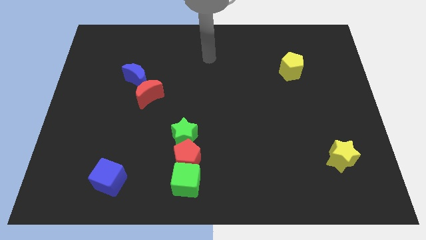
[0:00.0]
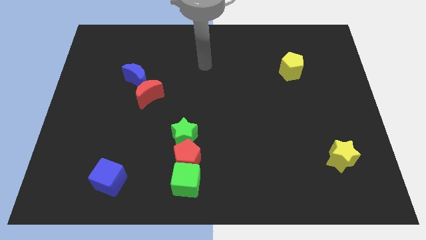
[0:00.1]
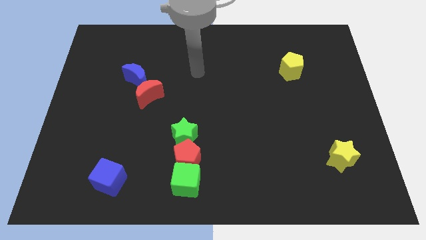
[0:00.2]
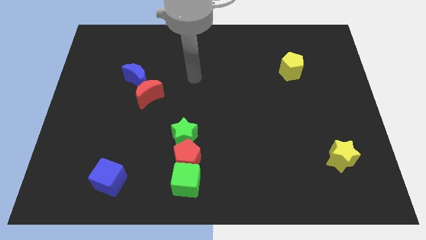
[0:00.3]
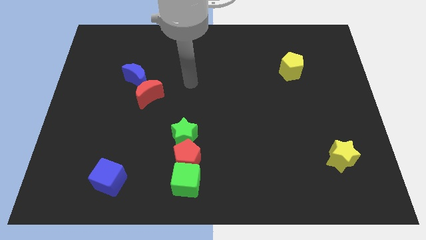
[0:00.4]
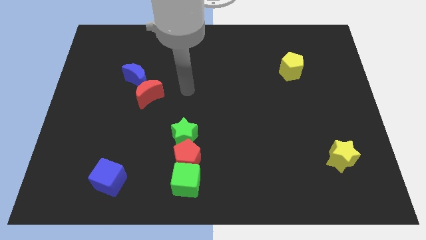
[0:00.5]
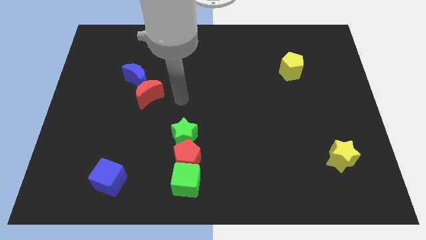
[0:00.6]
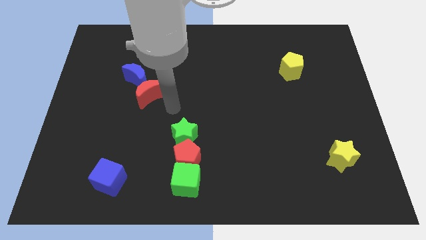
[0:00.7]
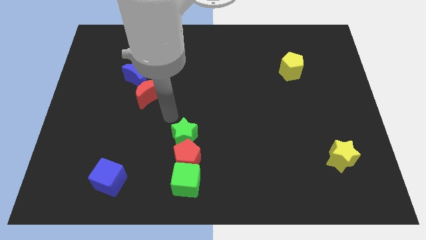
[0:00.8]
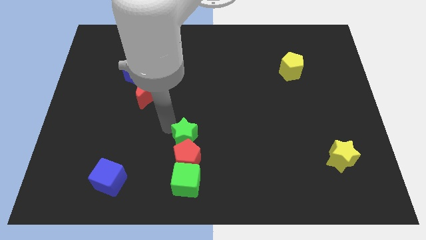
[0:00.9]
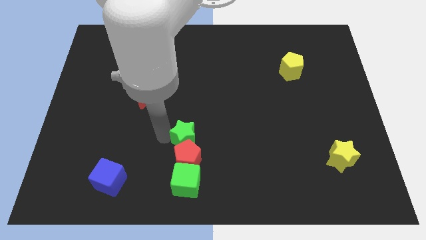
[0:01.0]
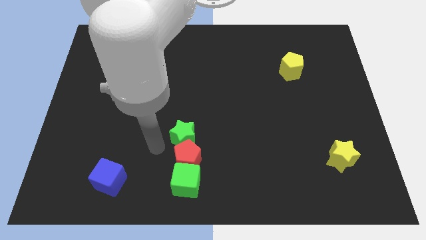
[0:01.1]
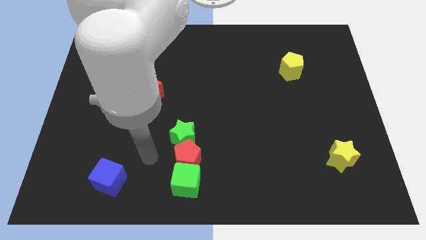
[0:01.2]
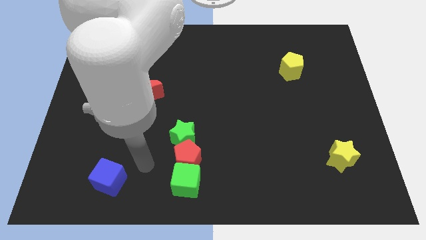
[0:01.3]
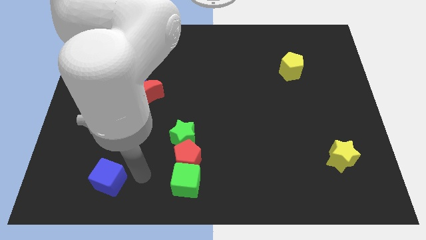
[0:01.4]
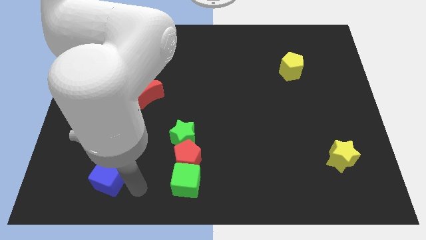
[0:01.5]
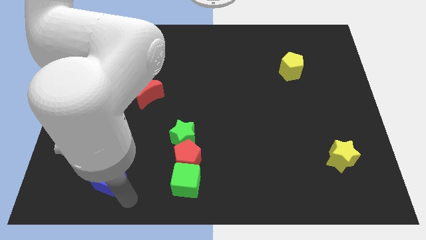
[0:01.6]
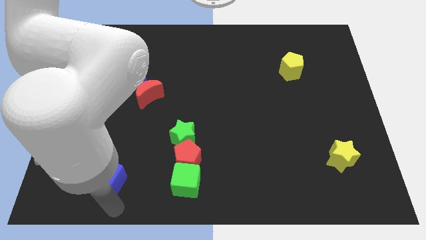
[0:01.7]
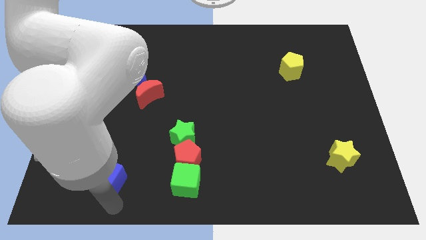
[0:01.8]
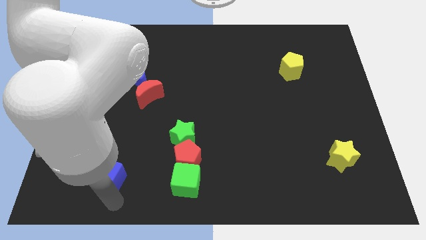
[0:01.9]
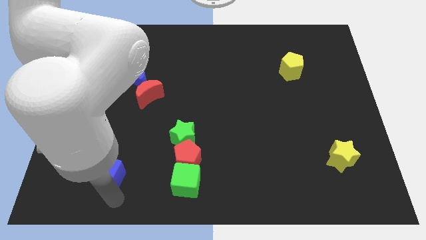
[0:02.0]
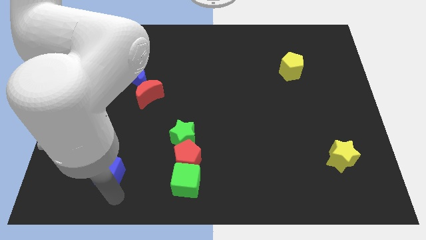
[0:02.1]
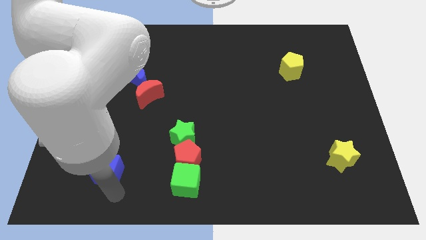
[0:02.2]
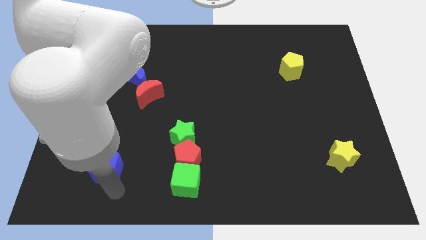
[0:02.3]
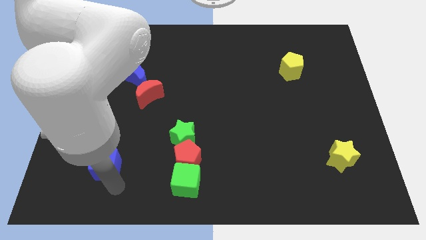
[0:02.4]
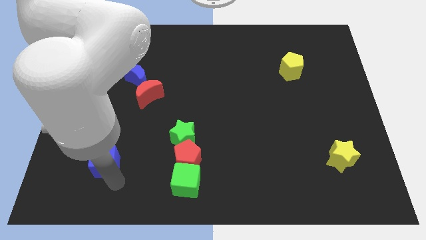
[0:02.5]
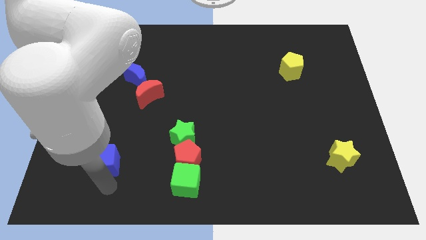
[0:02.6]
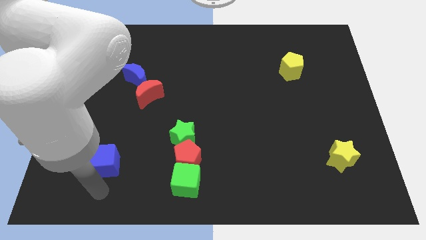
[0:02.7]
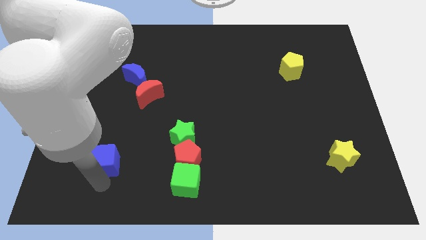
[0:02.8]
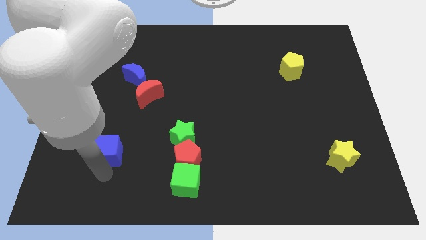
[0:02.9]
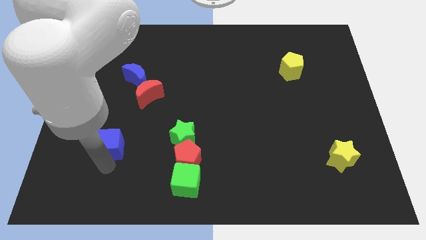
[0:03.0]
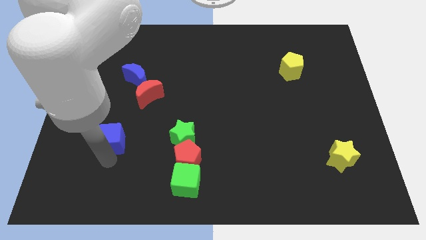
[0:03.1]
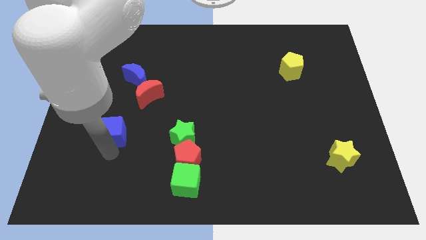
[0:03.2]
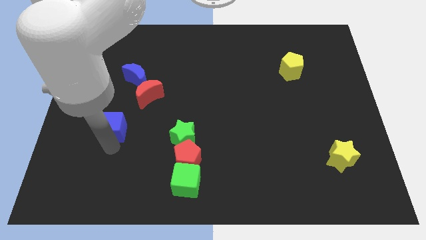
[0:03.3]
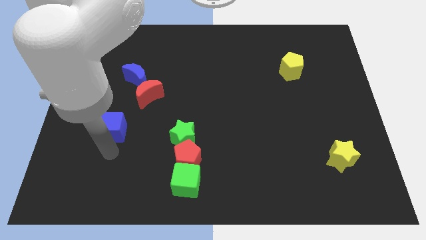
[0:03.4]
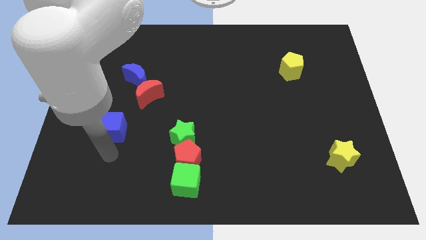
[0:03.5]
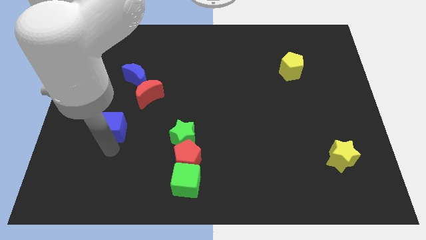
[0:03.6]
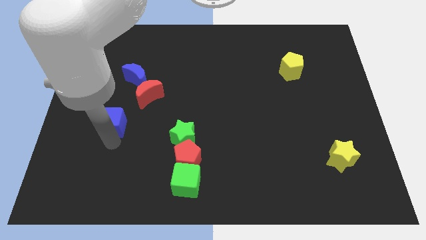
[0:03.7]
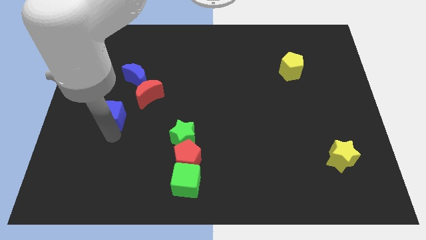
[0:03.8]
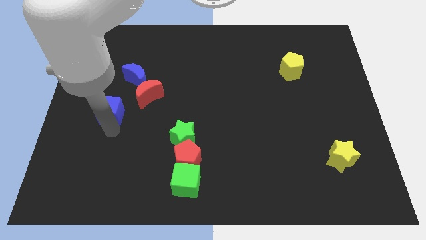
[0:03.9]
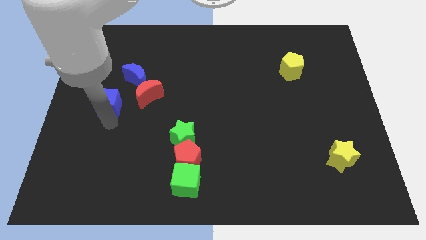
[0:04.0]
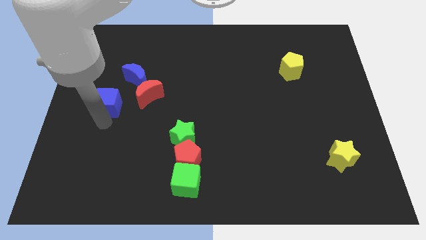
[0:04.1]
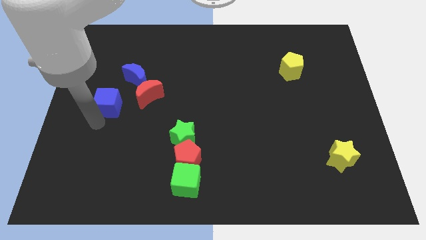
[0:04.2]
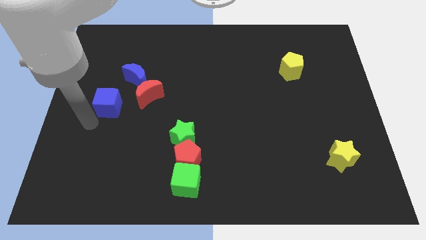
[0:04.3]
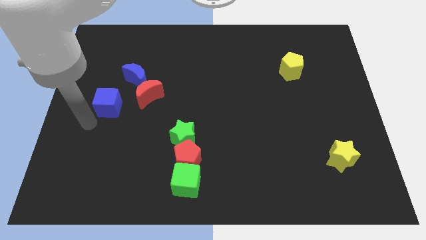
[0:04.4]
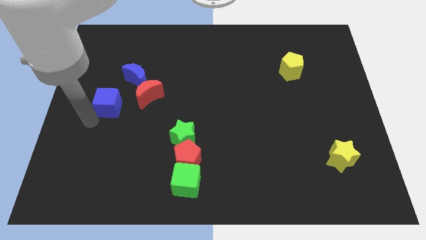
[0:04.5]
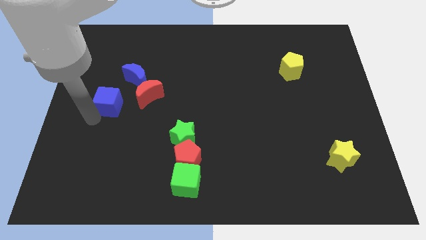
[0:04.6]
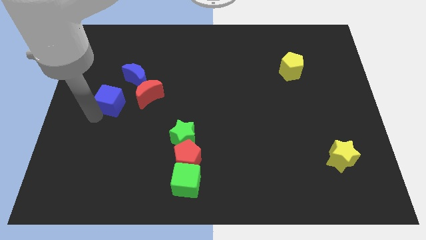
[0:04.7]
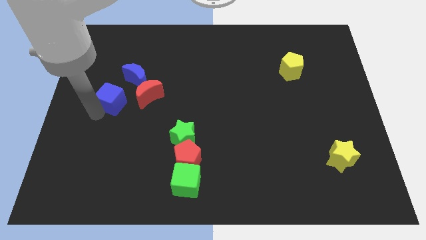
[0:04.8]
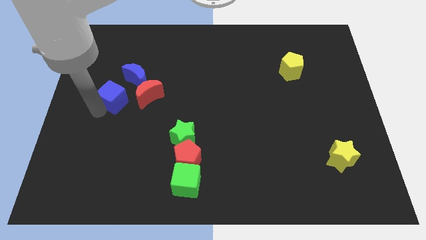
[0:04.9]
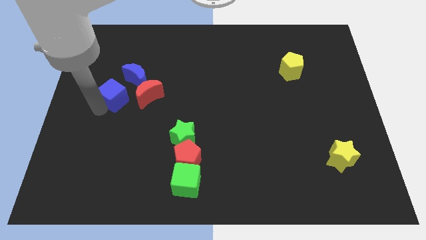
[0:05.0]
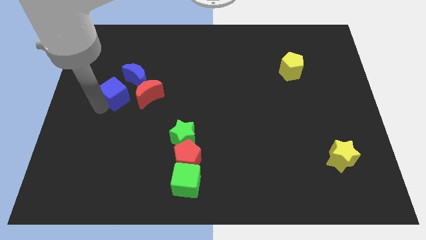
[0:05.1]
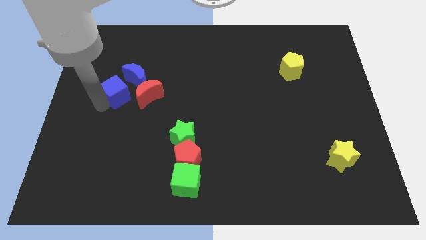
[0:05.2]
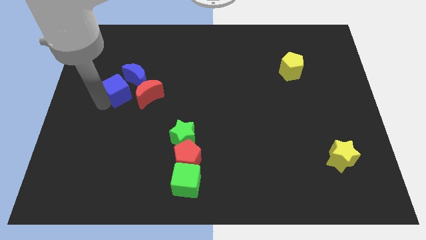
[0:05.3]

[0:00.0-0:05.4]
slide the blue cube to the blue moon

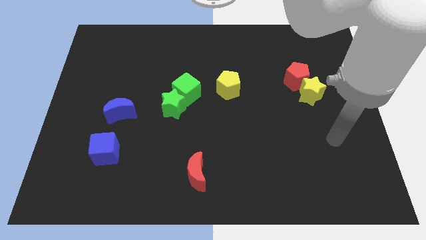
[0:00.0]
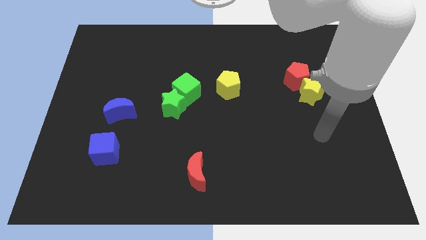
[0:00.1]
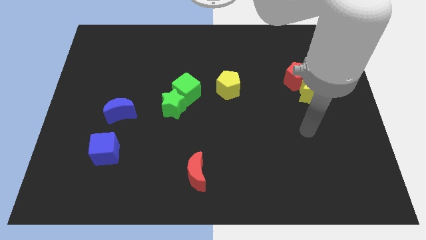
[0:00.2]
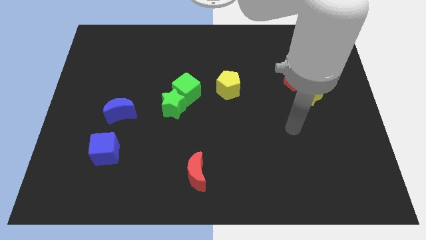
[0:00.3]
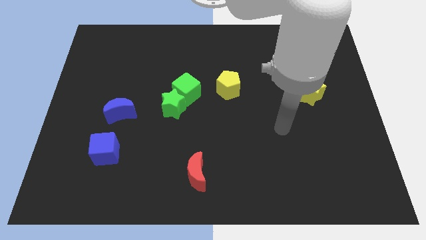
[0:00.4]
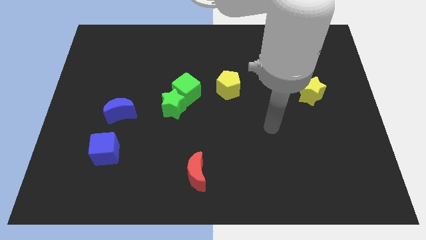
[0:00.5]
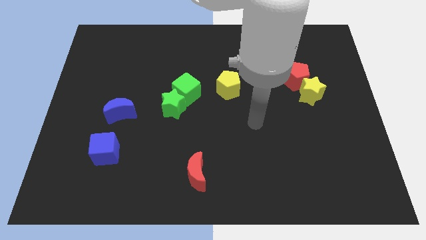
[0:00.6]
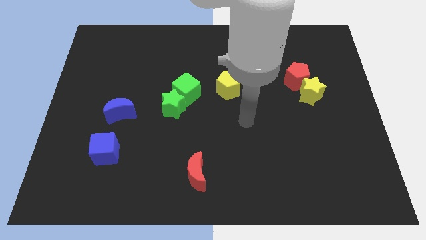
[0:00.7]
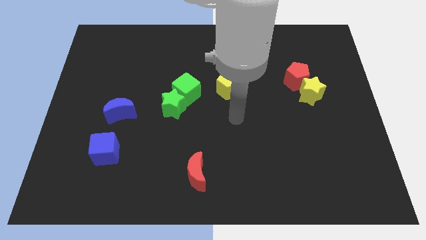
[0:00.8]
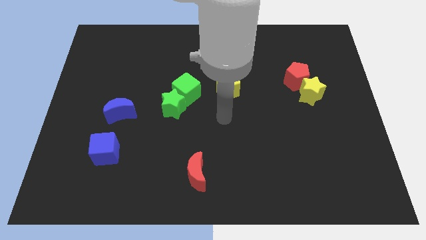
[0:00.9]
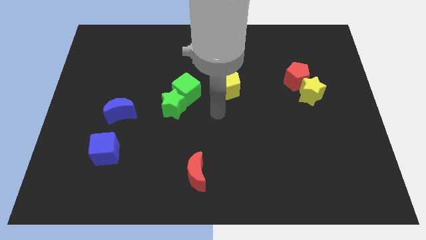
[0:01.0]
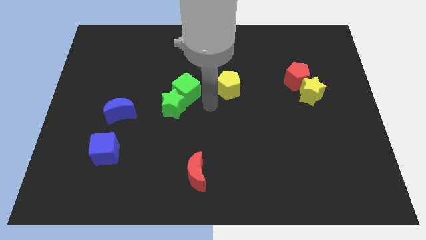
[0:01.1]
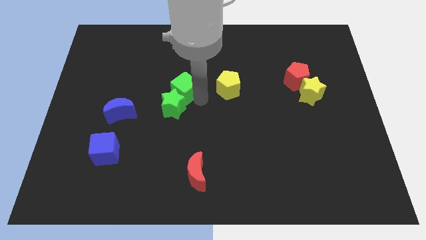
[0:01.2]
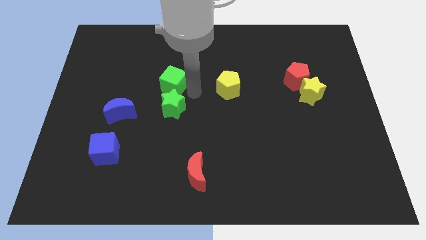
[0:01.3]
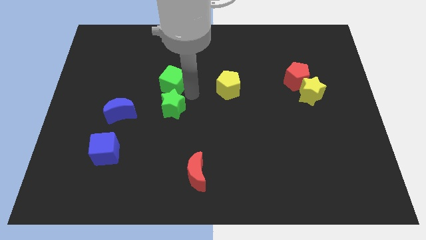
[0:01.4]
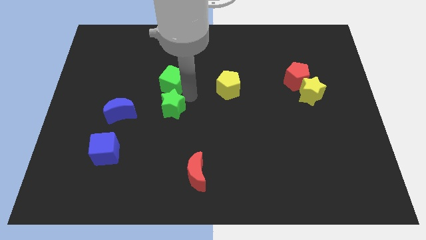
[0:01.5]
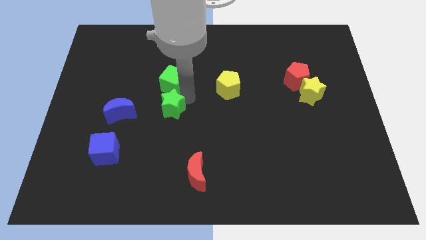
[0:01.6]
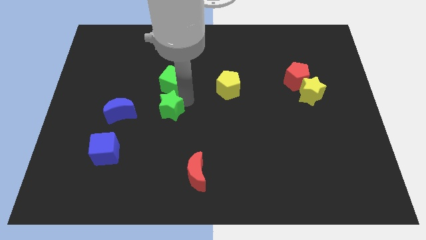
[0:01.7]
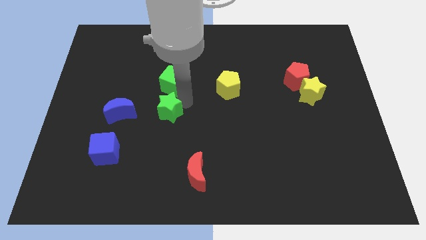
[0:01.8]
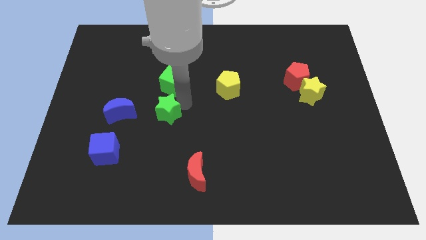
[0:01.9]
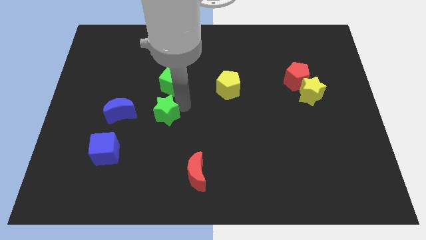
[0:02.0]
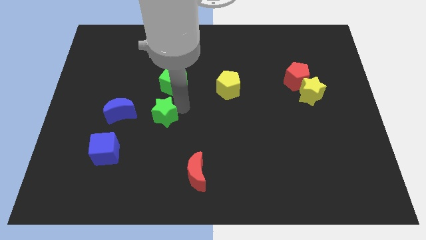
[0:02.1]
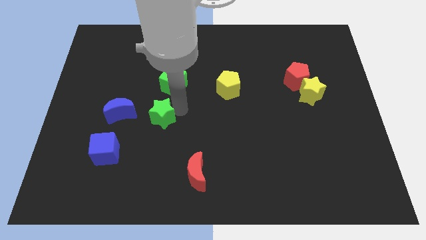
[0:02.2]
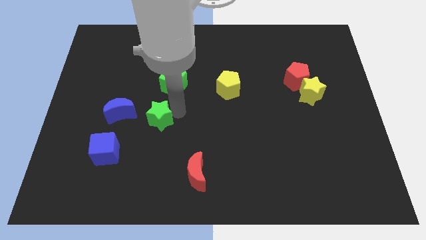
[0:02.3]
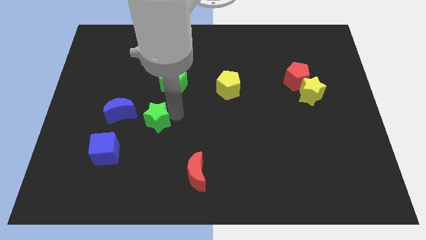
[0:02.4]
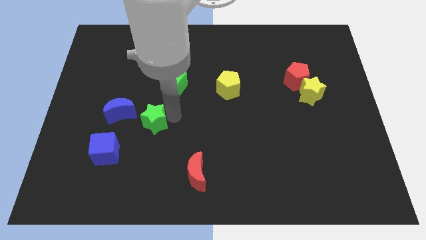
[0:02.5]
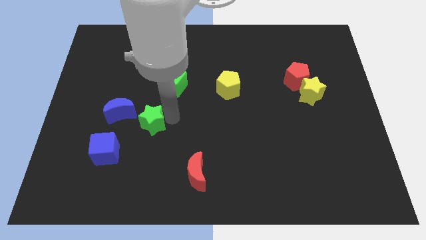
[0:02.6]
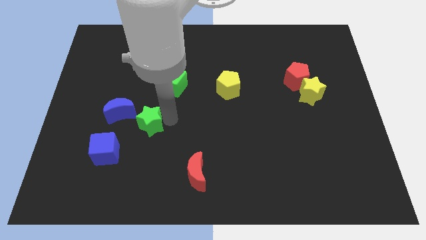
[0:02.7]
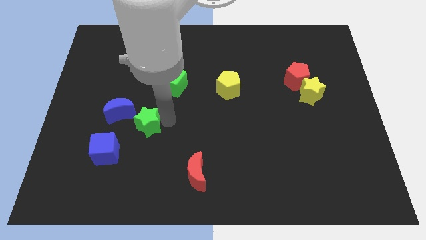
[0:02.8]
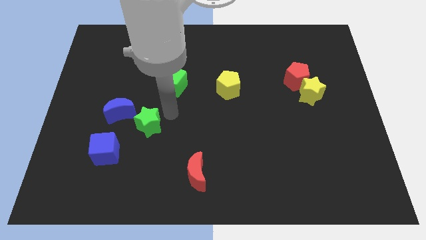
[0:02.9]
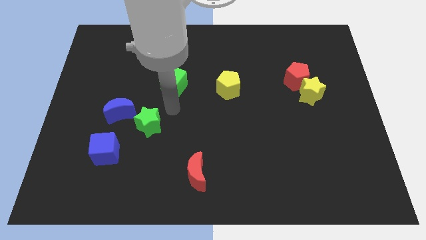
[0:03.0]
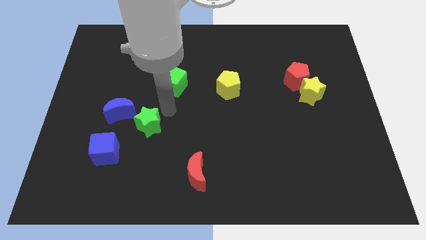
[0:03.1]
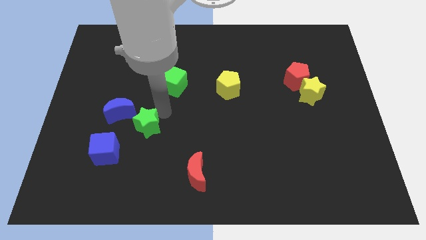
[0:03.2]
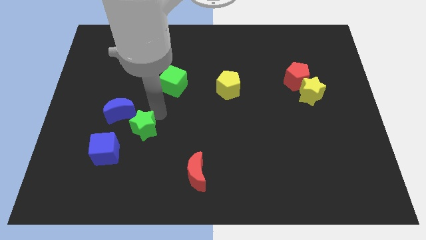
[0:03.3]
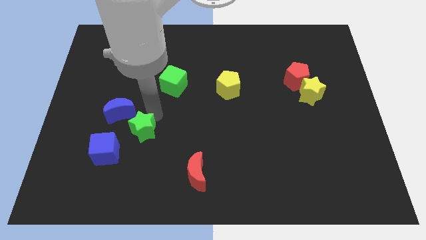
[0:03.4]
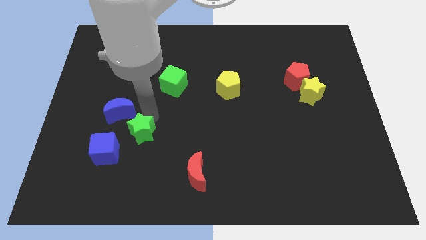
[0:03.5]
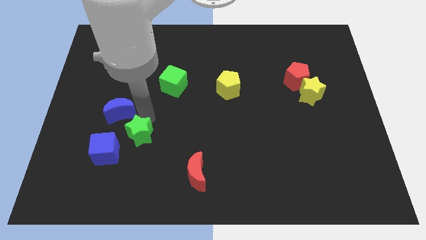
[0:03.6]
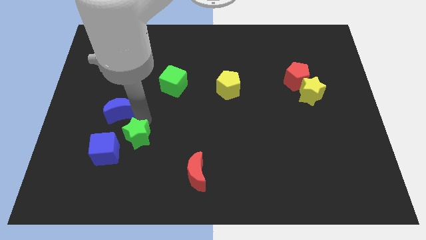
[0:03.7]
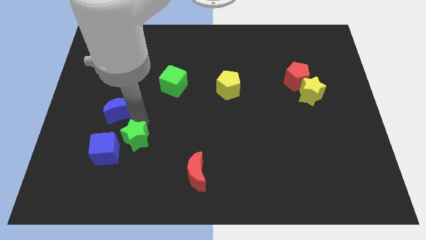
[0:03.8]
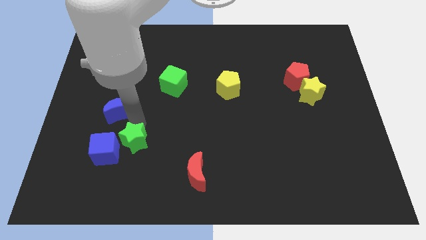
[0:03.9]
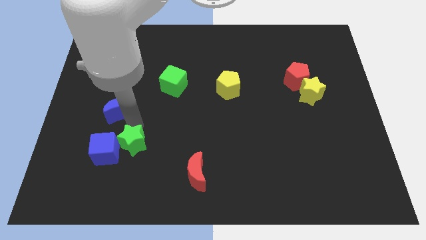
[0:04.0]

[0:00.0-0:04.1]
push the green star towards the blue cube
